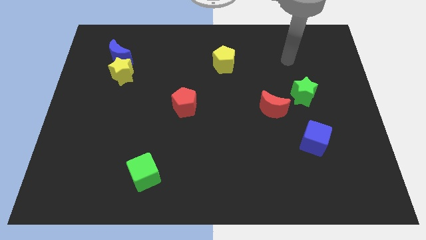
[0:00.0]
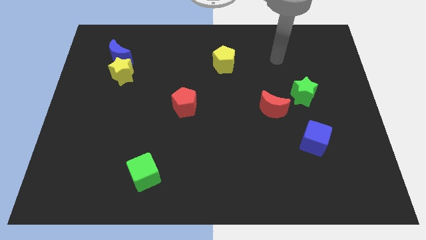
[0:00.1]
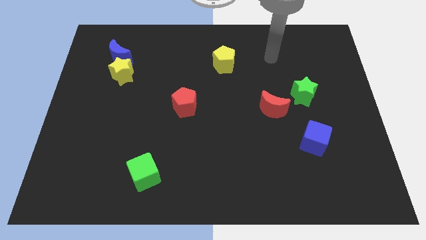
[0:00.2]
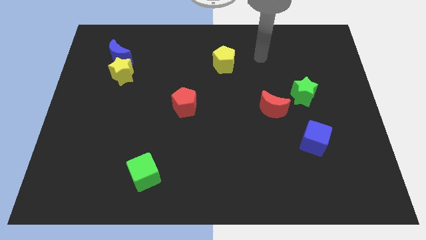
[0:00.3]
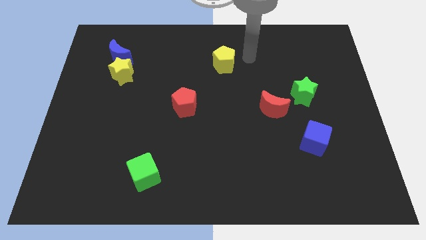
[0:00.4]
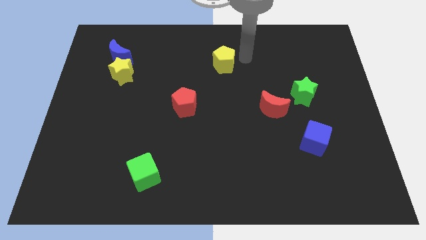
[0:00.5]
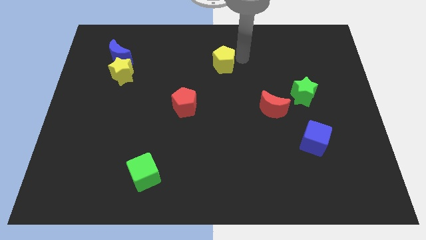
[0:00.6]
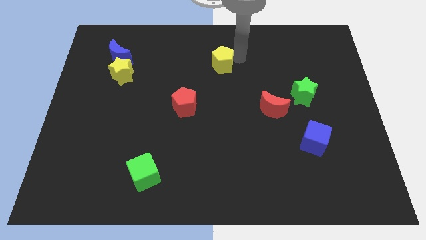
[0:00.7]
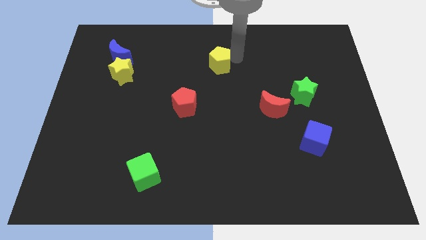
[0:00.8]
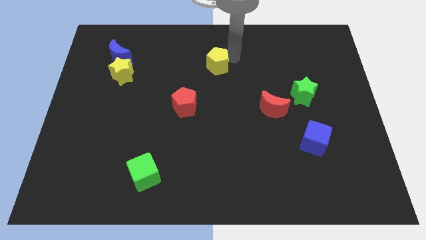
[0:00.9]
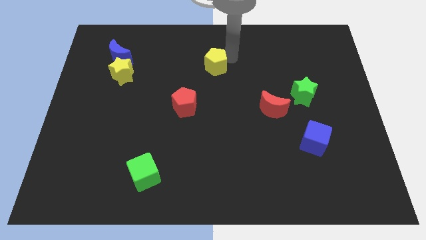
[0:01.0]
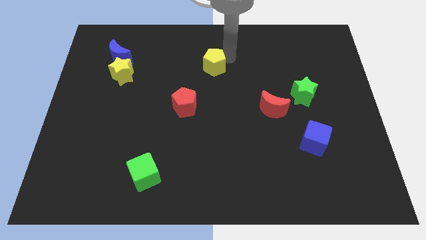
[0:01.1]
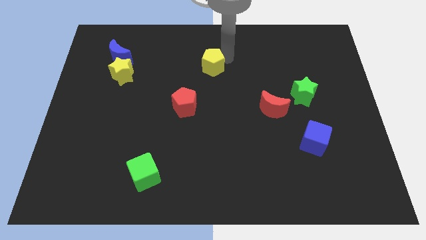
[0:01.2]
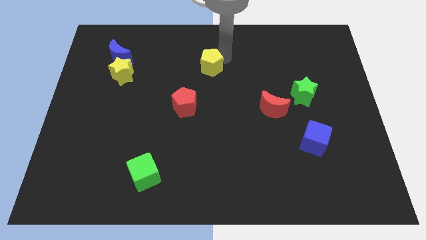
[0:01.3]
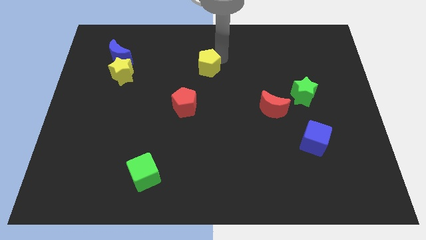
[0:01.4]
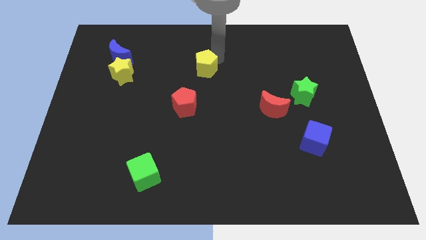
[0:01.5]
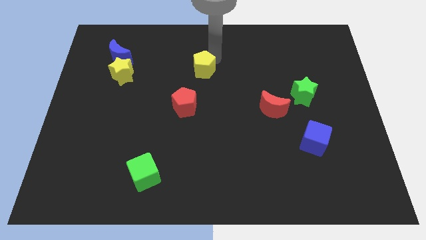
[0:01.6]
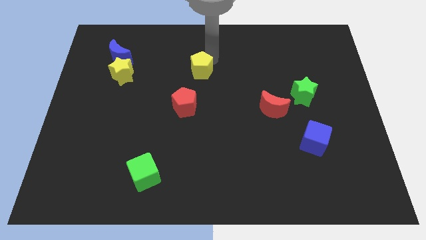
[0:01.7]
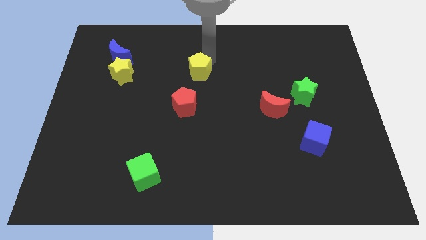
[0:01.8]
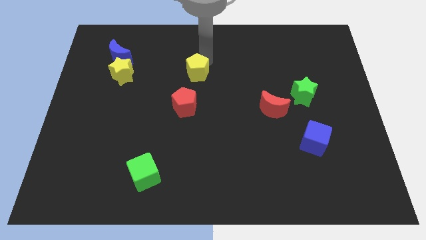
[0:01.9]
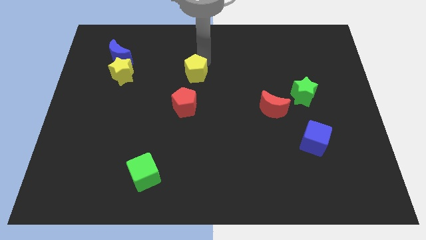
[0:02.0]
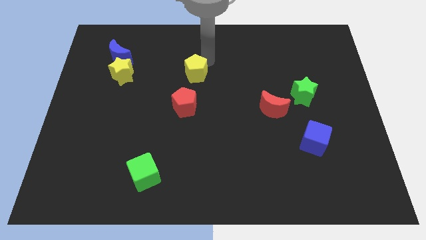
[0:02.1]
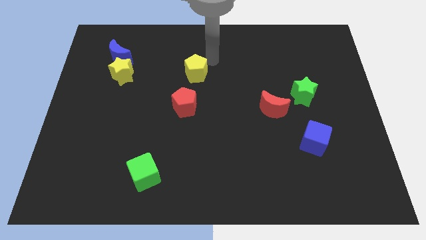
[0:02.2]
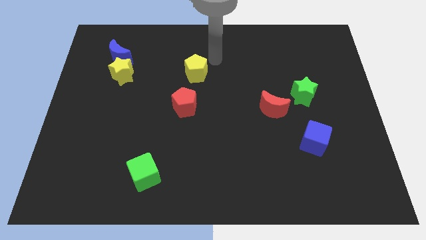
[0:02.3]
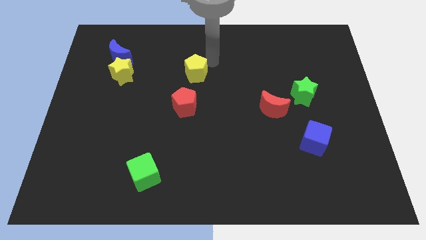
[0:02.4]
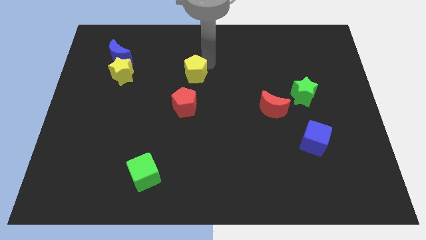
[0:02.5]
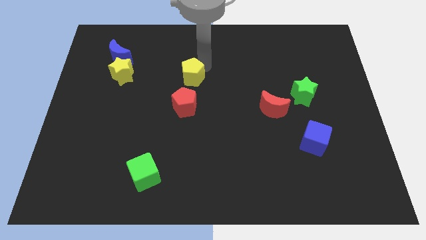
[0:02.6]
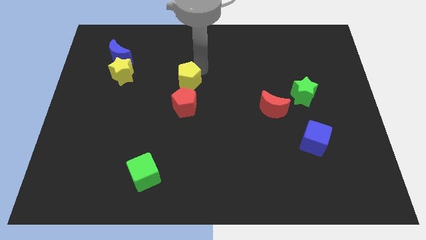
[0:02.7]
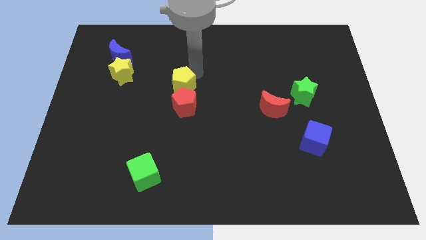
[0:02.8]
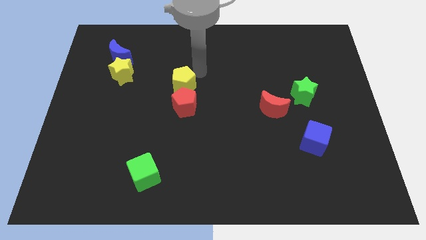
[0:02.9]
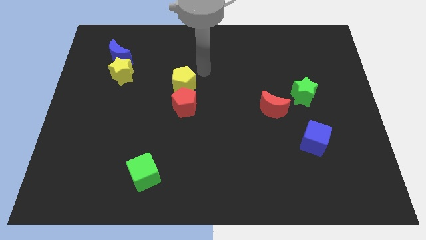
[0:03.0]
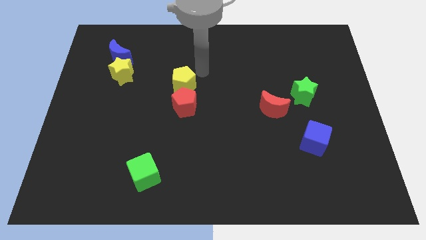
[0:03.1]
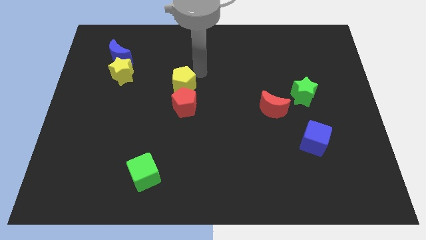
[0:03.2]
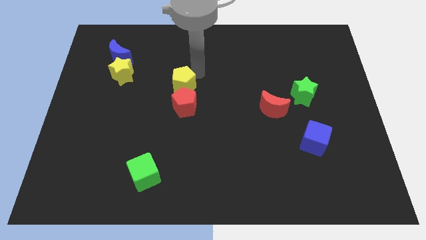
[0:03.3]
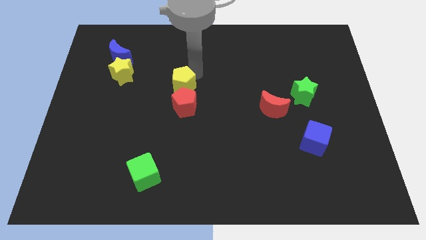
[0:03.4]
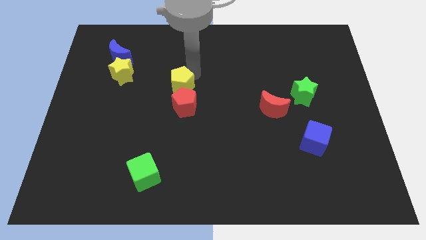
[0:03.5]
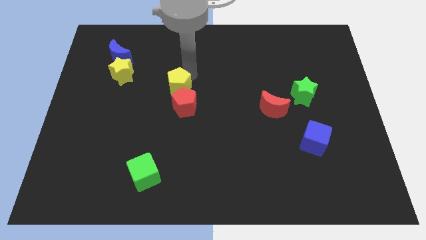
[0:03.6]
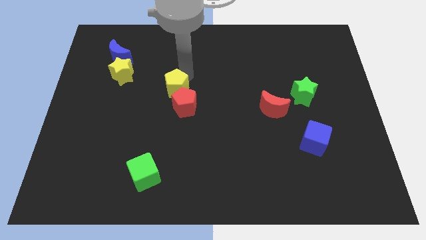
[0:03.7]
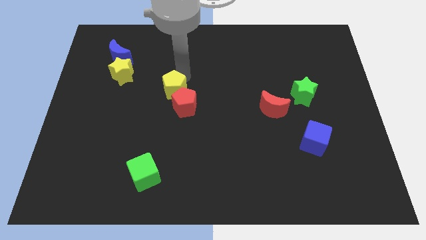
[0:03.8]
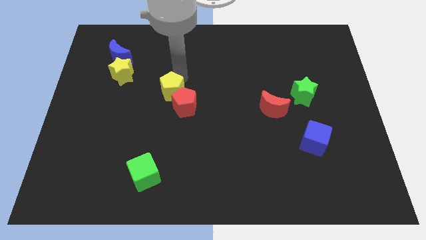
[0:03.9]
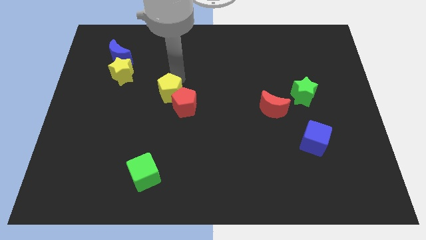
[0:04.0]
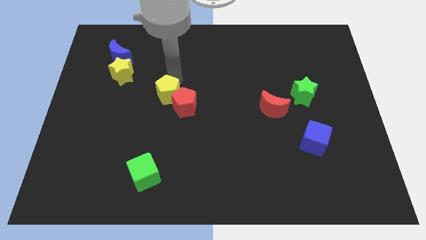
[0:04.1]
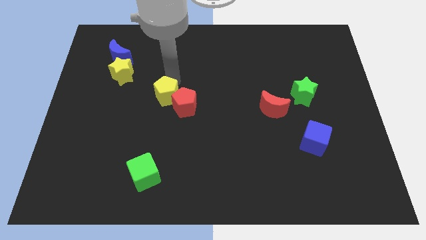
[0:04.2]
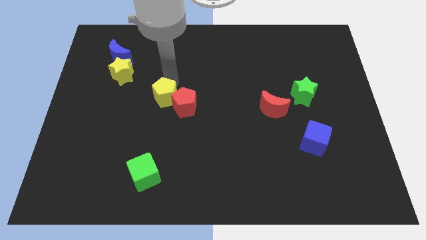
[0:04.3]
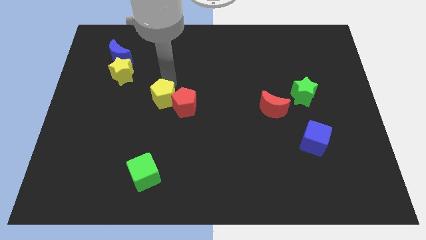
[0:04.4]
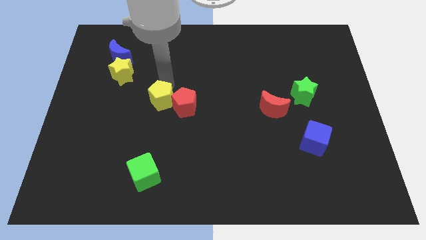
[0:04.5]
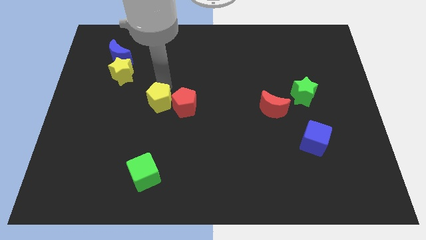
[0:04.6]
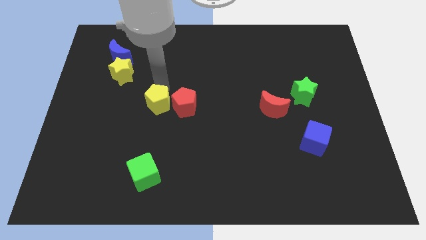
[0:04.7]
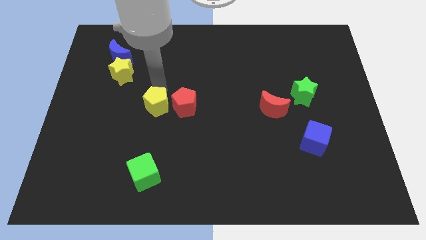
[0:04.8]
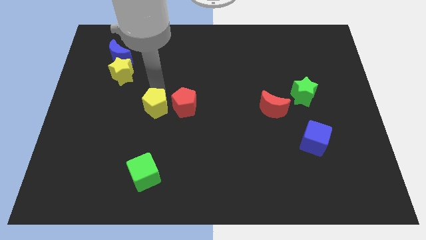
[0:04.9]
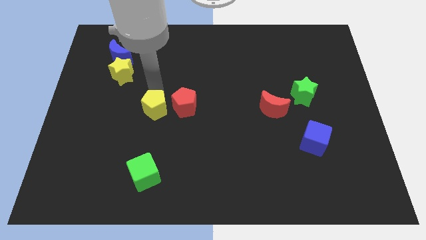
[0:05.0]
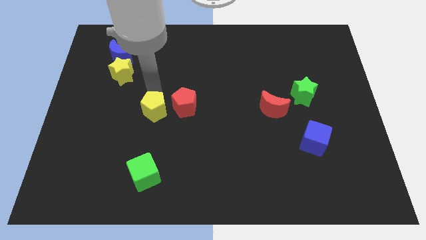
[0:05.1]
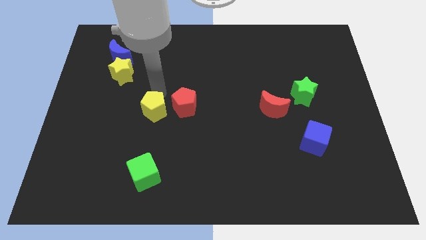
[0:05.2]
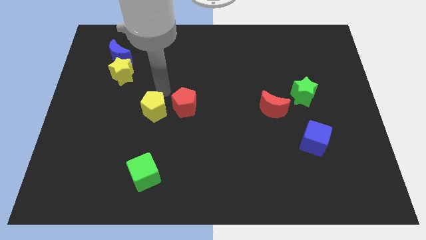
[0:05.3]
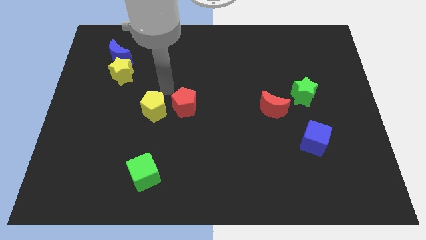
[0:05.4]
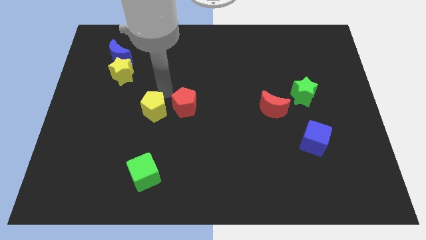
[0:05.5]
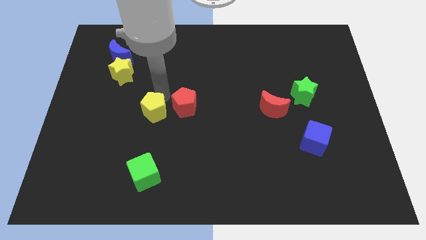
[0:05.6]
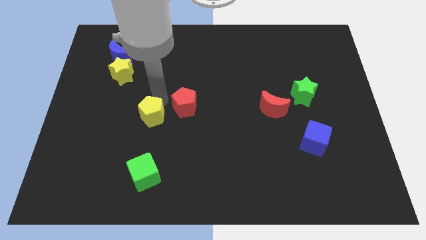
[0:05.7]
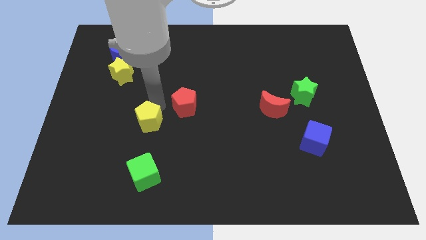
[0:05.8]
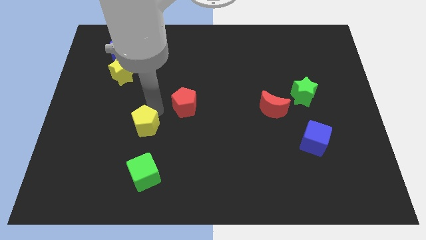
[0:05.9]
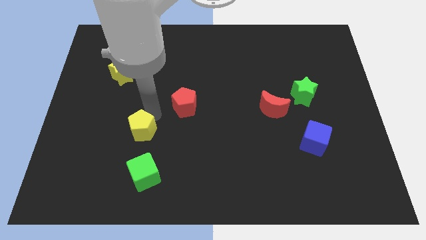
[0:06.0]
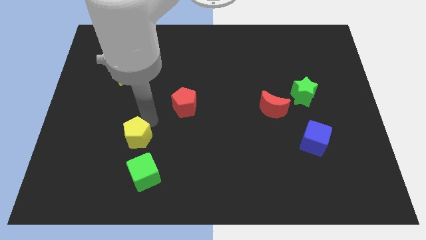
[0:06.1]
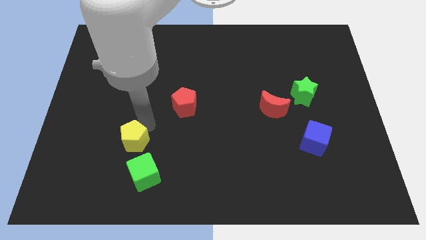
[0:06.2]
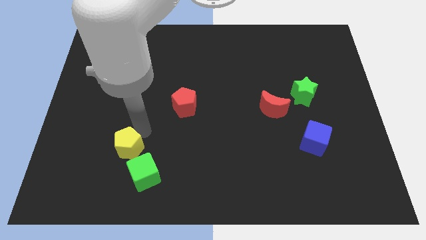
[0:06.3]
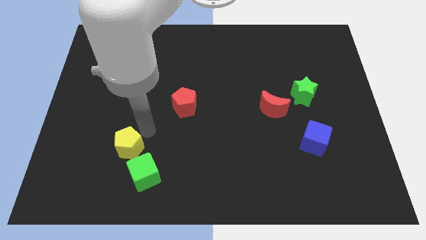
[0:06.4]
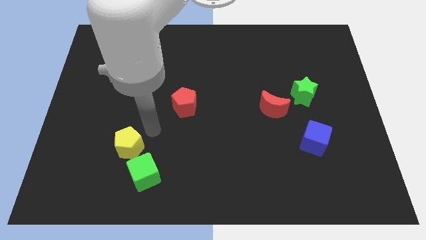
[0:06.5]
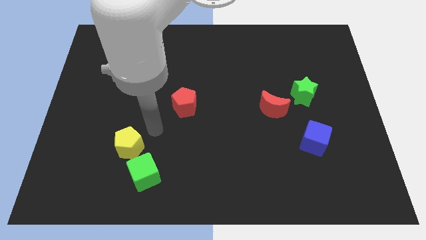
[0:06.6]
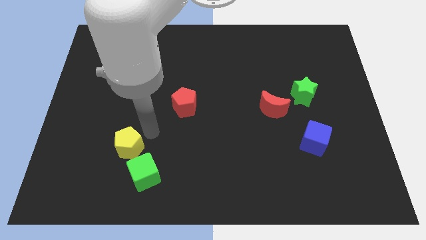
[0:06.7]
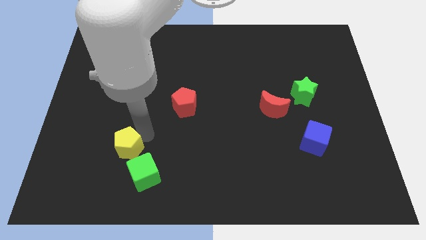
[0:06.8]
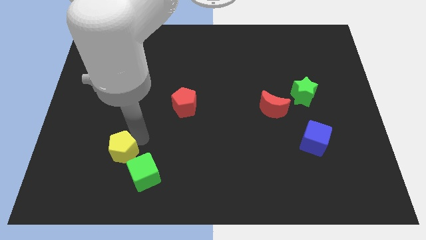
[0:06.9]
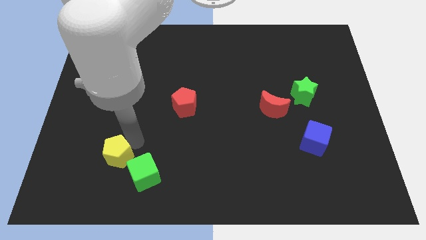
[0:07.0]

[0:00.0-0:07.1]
slide the yellow pentagon to the left of the green cube
